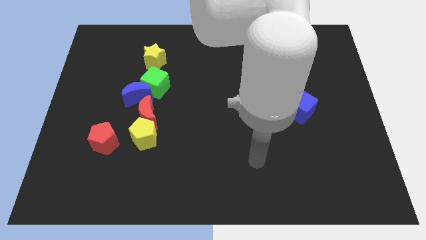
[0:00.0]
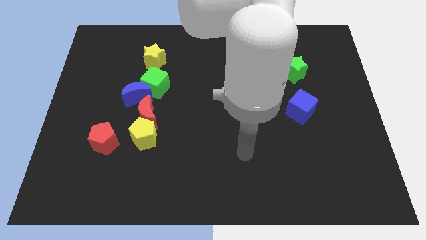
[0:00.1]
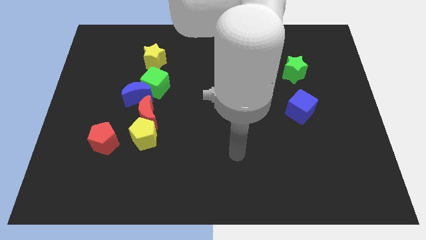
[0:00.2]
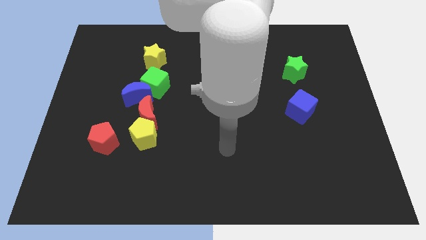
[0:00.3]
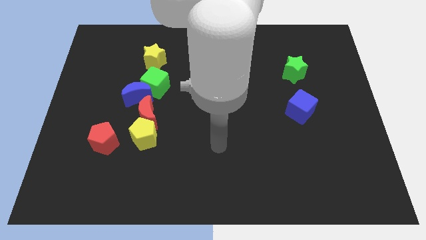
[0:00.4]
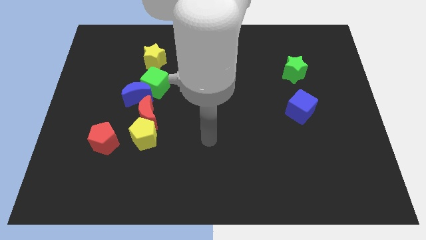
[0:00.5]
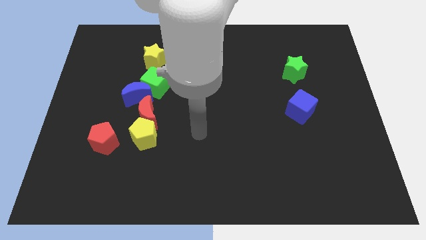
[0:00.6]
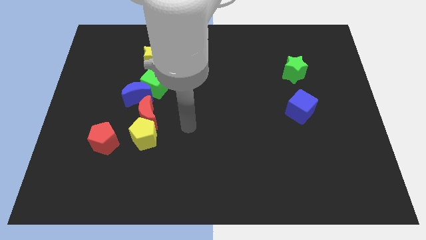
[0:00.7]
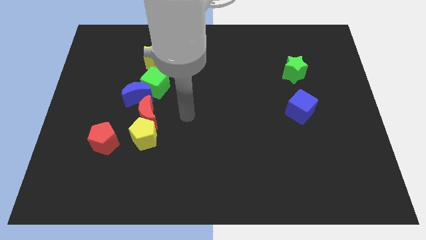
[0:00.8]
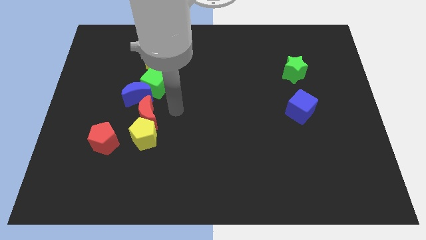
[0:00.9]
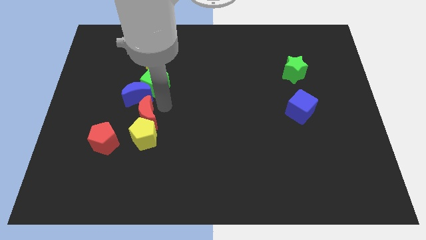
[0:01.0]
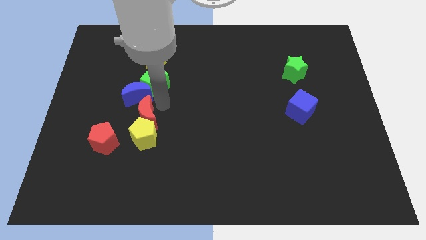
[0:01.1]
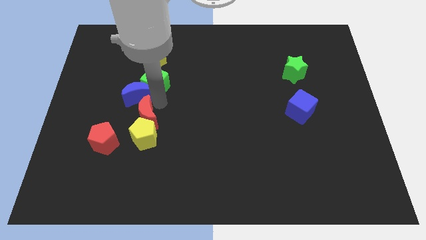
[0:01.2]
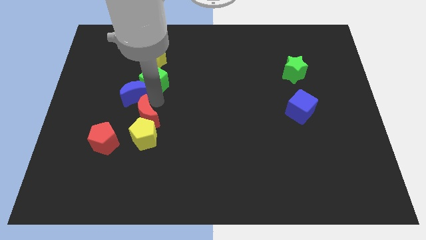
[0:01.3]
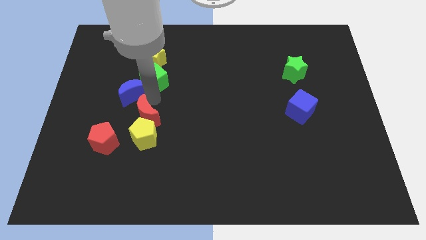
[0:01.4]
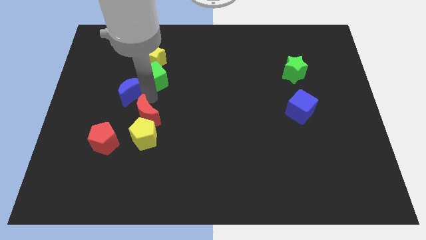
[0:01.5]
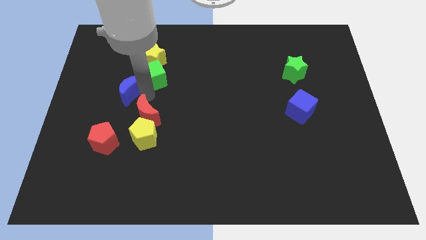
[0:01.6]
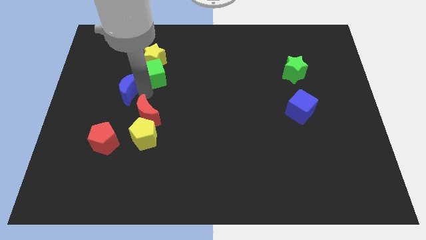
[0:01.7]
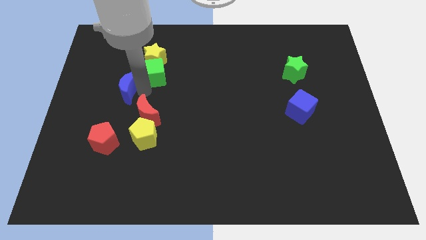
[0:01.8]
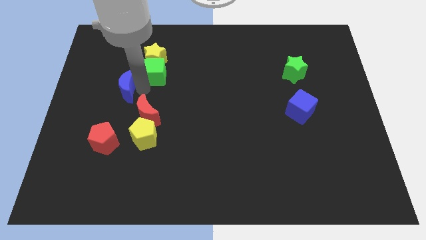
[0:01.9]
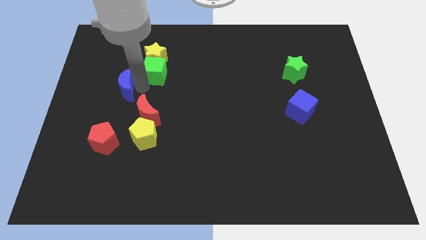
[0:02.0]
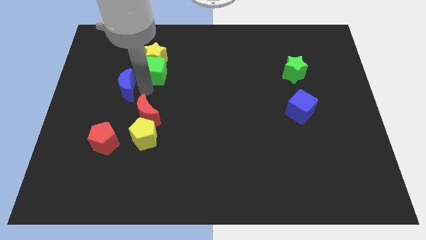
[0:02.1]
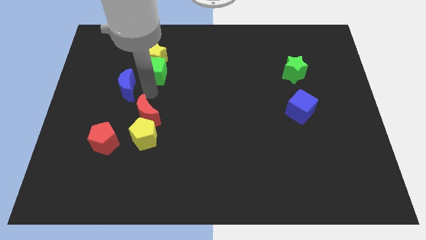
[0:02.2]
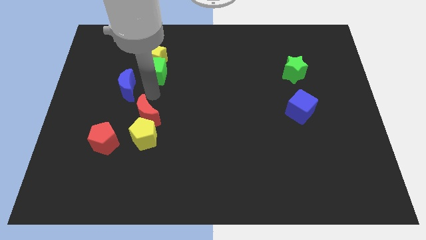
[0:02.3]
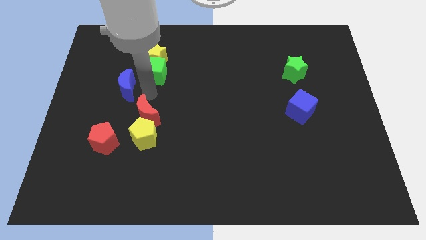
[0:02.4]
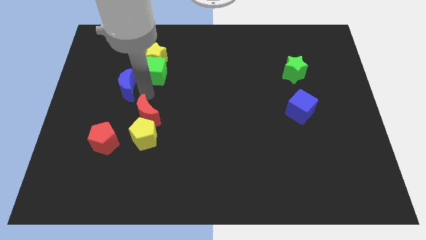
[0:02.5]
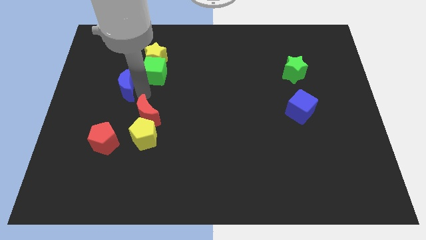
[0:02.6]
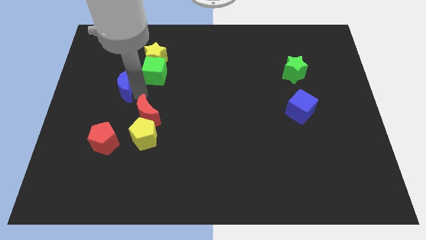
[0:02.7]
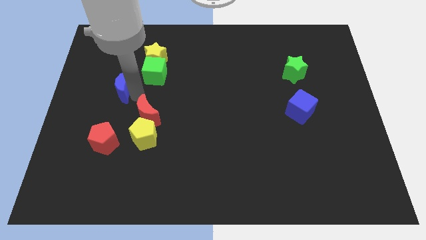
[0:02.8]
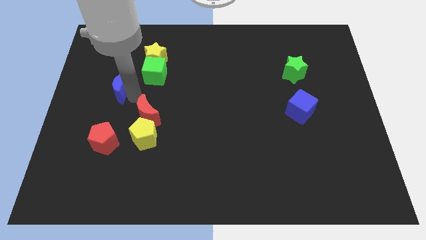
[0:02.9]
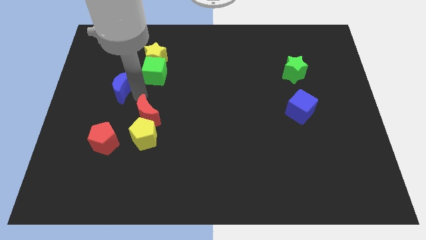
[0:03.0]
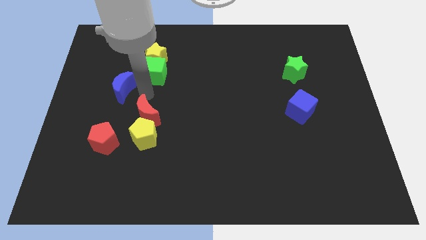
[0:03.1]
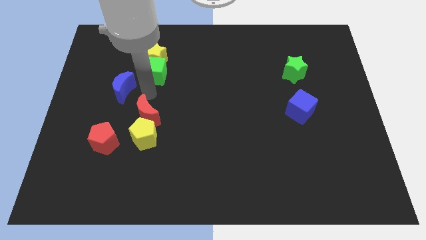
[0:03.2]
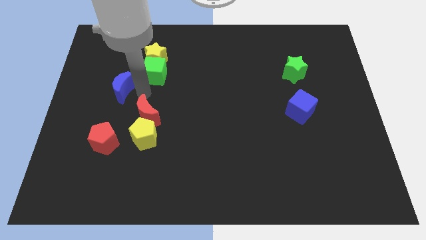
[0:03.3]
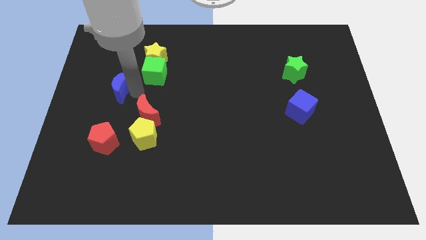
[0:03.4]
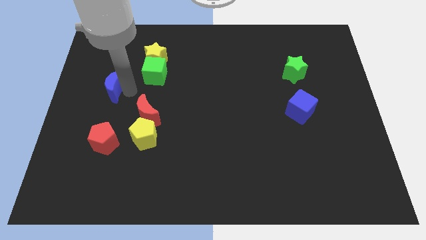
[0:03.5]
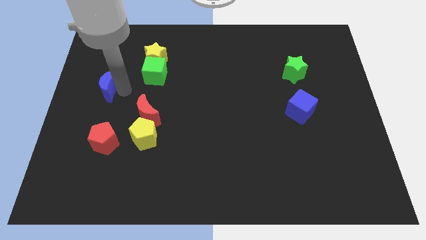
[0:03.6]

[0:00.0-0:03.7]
pull the blue moon apart from the green cube and red moon

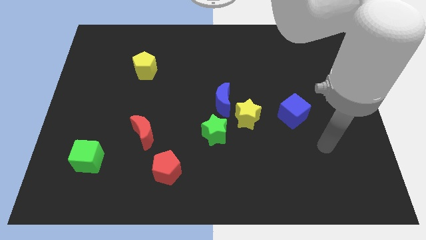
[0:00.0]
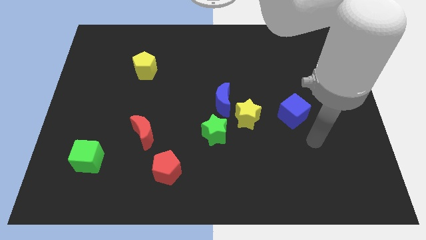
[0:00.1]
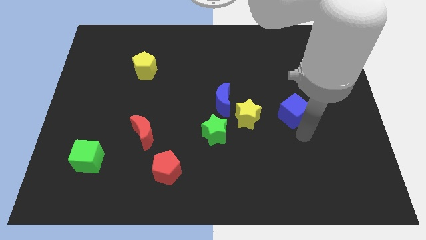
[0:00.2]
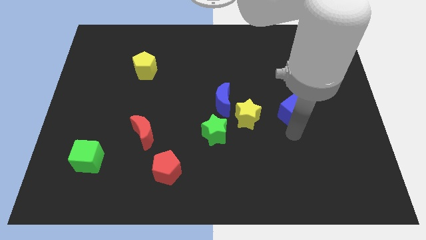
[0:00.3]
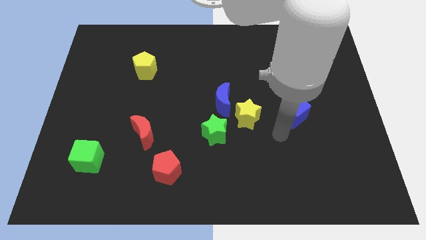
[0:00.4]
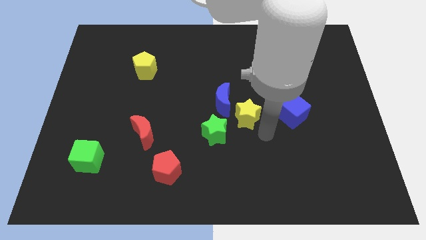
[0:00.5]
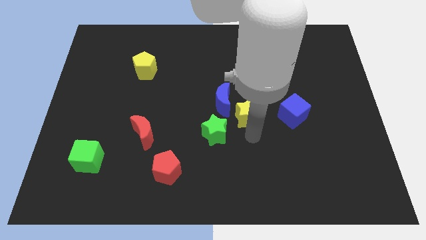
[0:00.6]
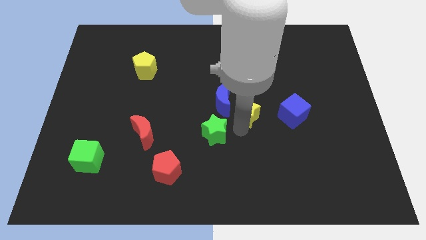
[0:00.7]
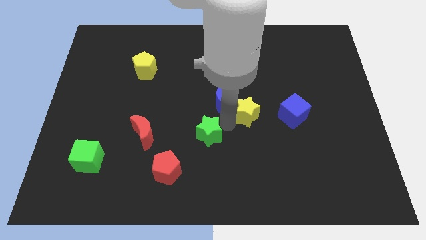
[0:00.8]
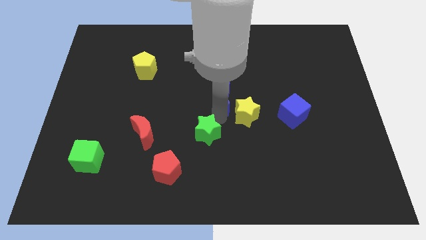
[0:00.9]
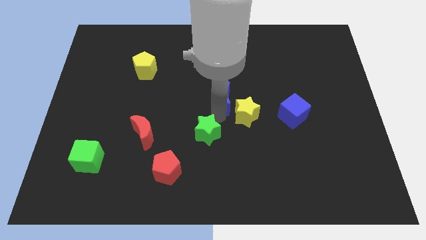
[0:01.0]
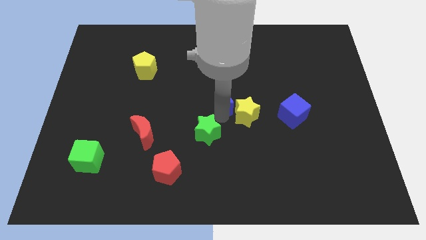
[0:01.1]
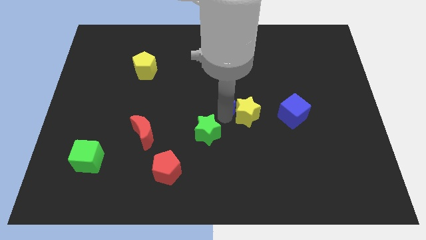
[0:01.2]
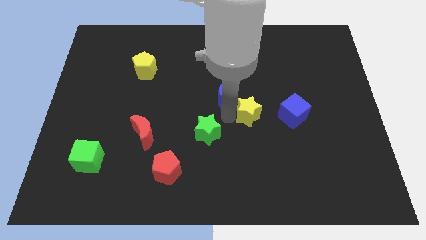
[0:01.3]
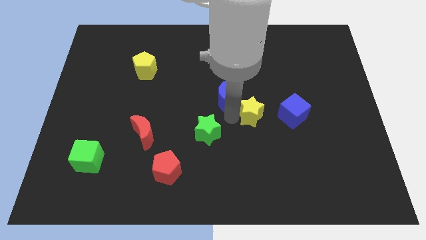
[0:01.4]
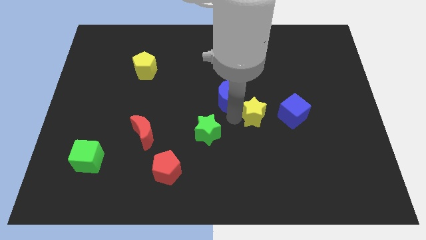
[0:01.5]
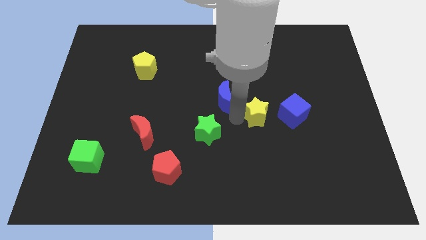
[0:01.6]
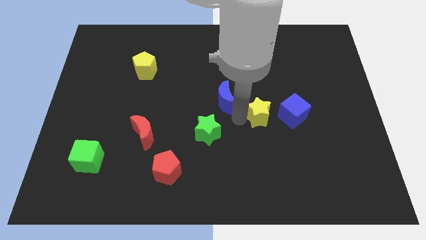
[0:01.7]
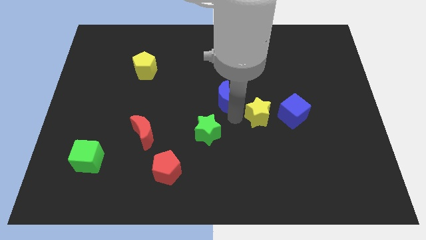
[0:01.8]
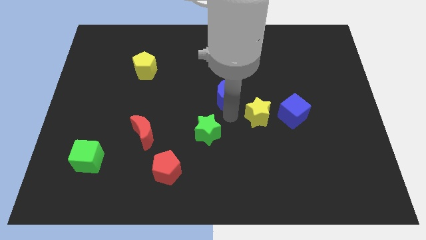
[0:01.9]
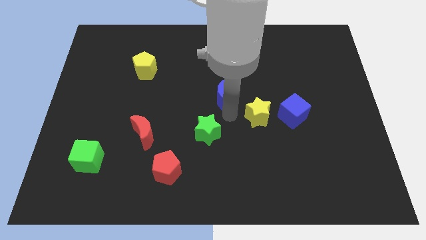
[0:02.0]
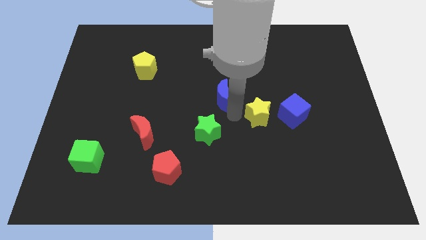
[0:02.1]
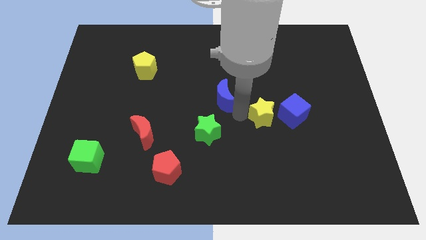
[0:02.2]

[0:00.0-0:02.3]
pull the yellow star apart from the blue moon and green star

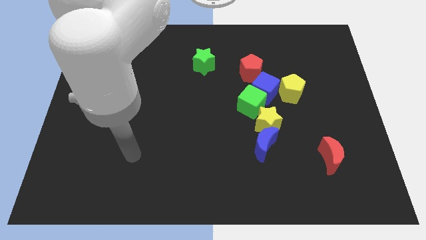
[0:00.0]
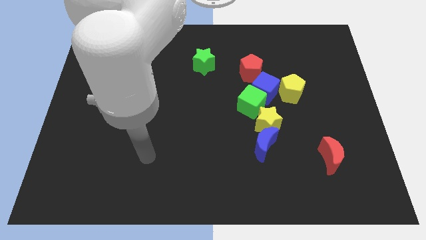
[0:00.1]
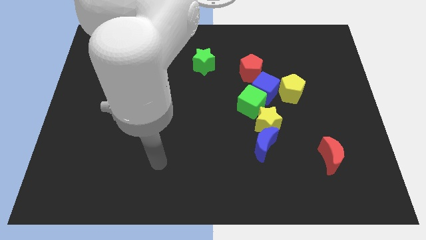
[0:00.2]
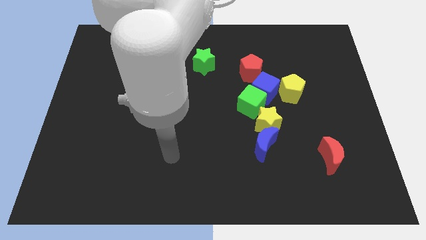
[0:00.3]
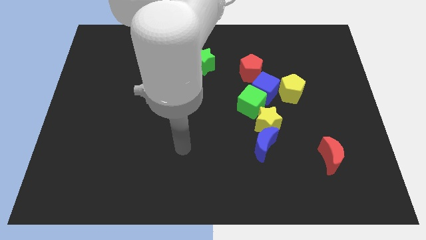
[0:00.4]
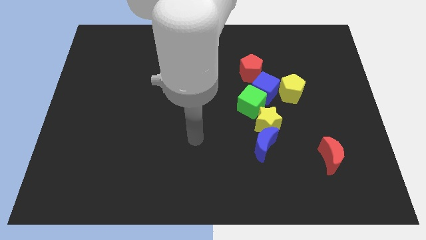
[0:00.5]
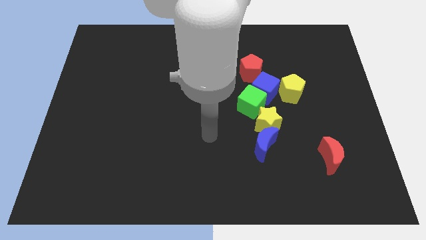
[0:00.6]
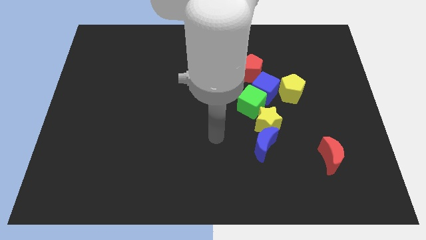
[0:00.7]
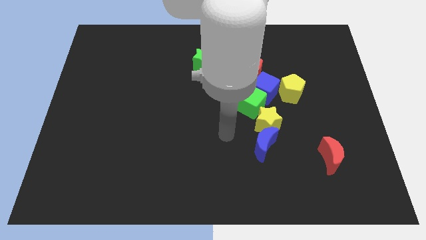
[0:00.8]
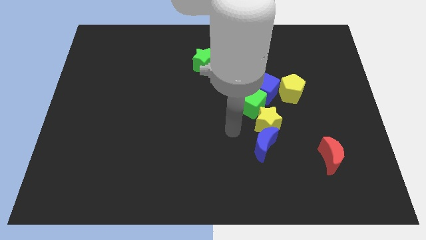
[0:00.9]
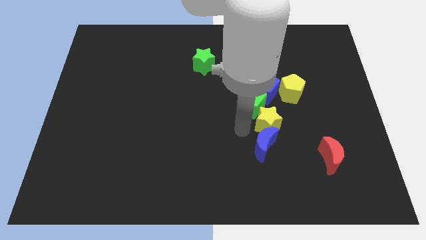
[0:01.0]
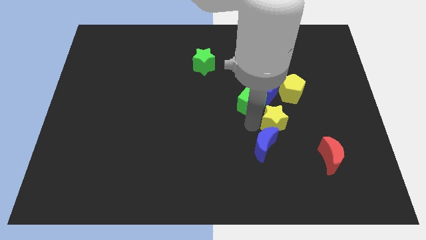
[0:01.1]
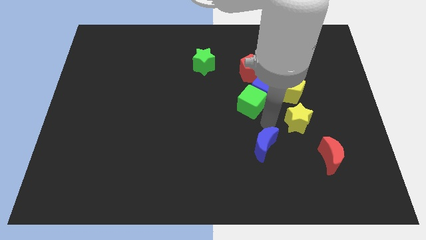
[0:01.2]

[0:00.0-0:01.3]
pull the blue moon apart from the yellow star

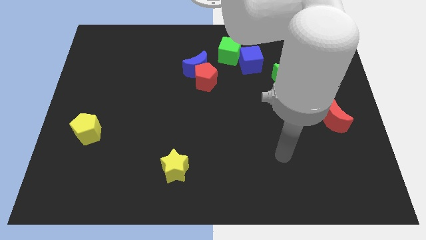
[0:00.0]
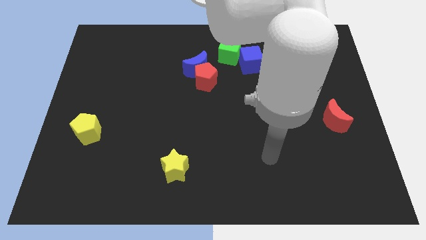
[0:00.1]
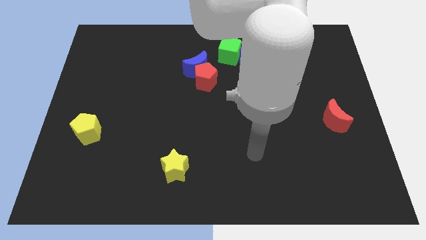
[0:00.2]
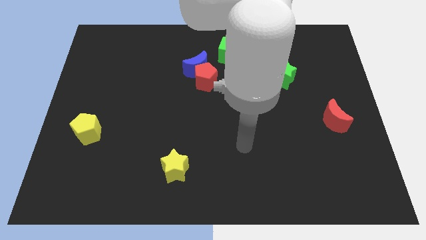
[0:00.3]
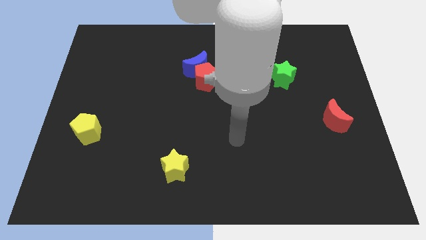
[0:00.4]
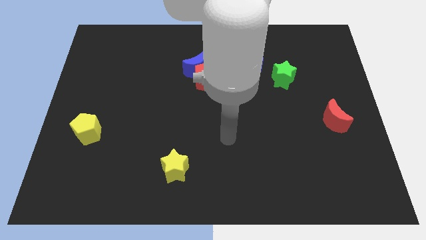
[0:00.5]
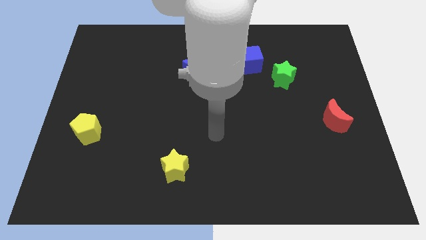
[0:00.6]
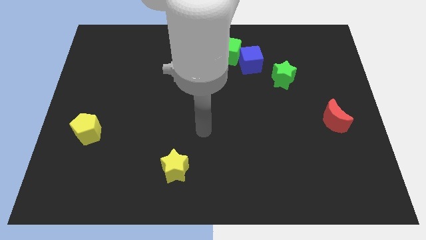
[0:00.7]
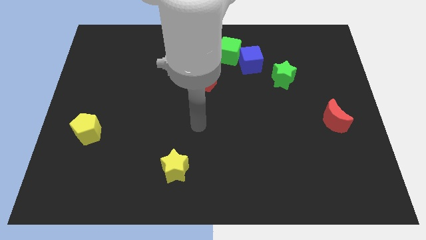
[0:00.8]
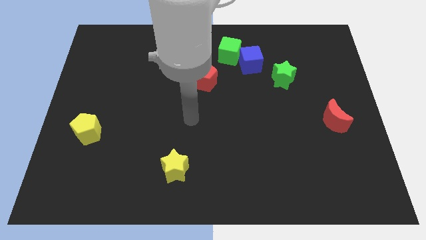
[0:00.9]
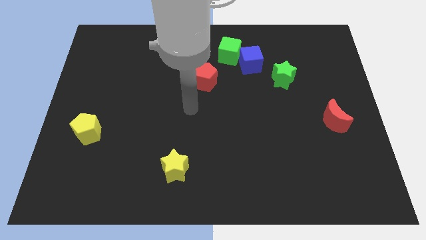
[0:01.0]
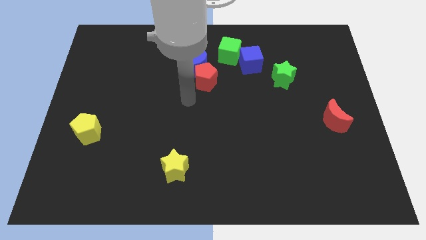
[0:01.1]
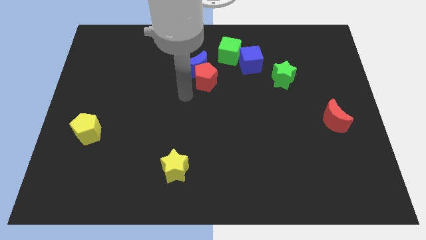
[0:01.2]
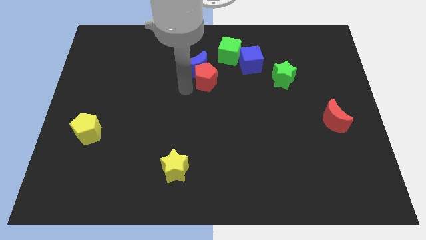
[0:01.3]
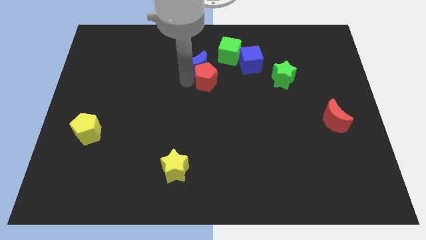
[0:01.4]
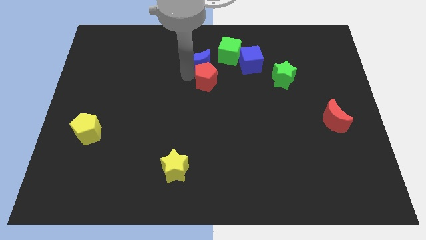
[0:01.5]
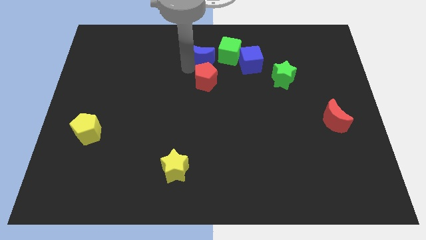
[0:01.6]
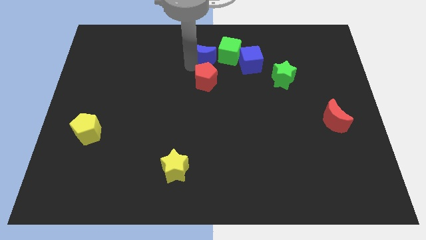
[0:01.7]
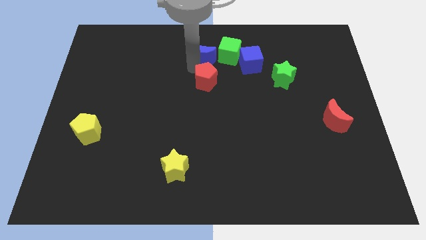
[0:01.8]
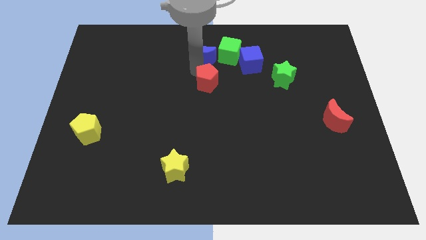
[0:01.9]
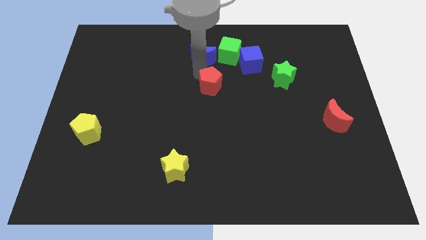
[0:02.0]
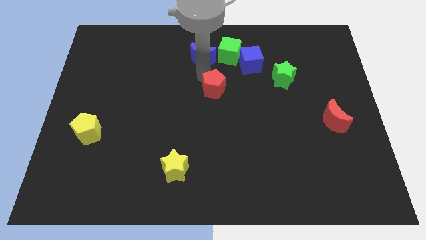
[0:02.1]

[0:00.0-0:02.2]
move the red pentagon away from the blue moon

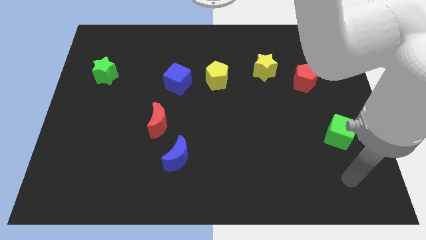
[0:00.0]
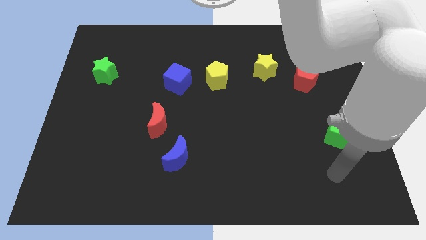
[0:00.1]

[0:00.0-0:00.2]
move the blue cube away from the yellow pentagon
